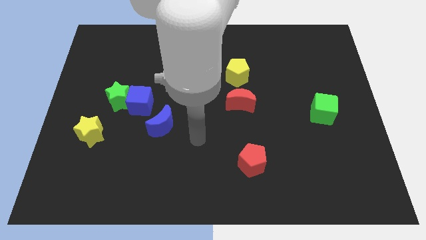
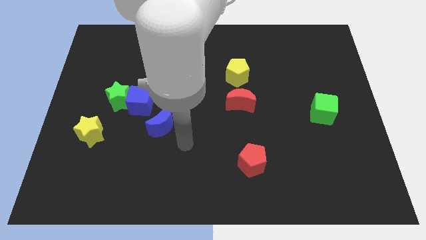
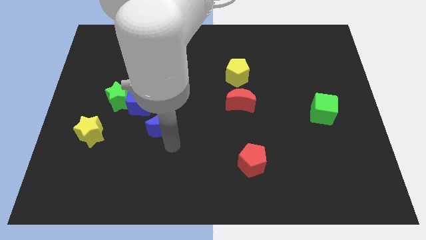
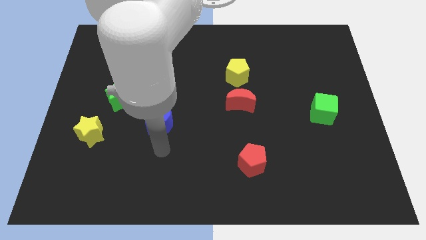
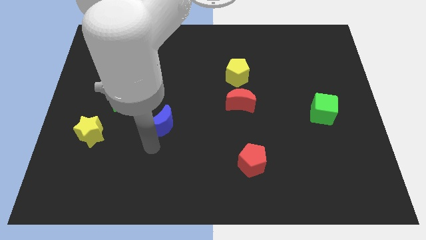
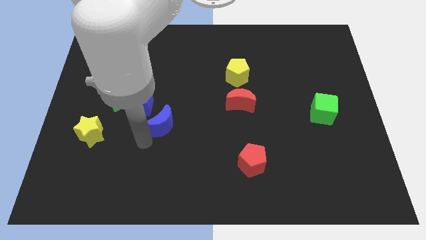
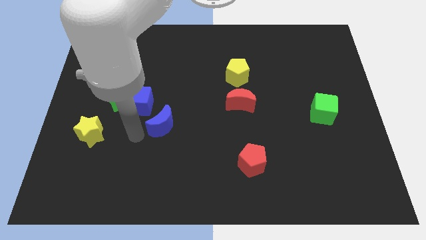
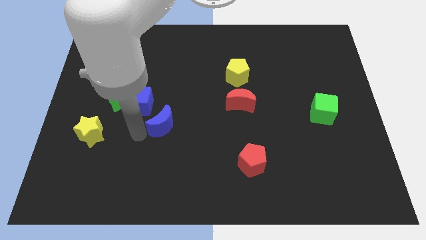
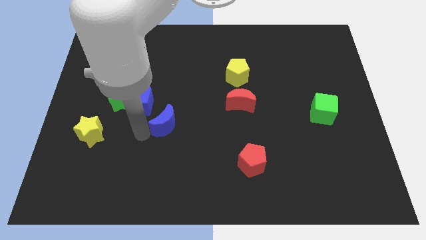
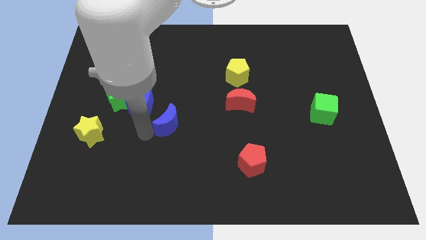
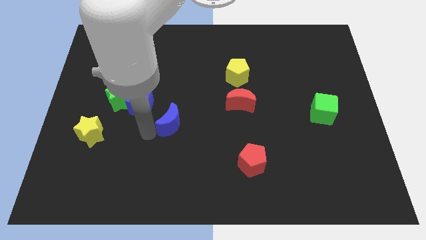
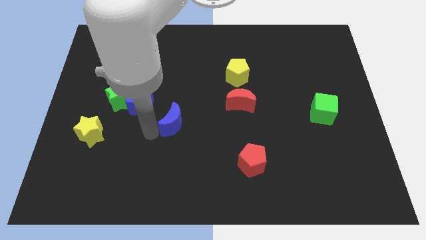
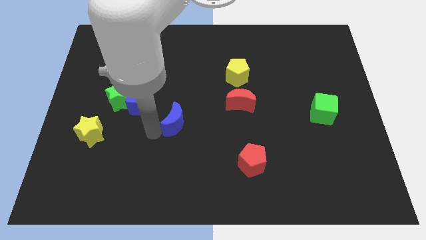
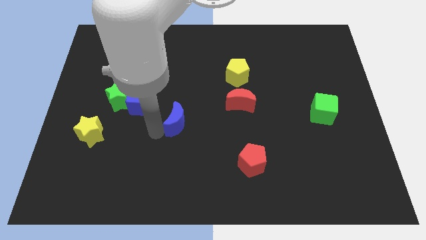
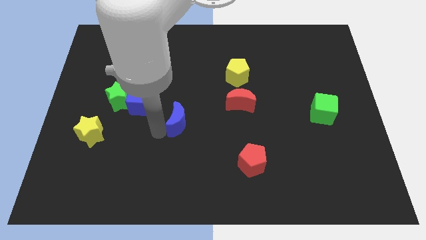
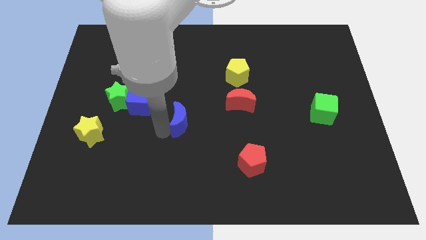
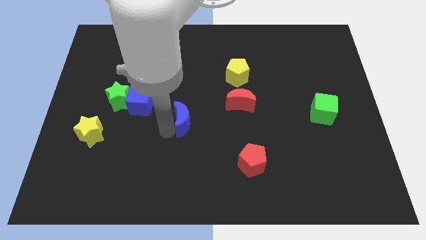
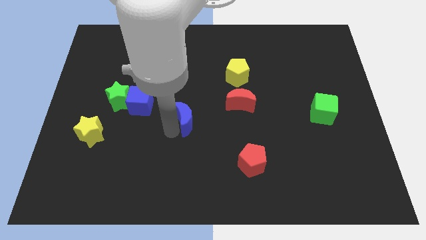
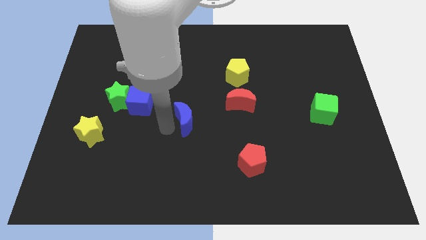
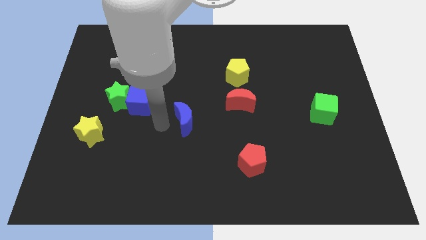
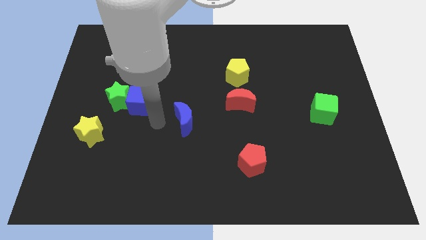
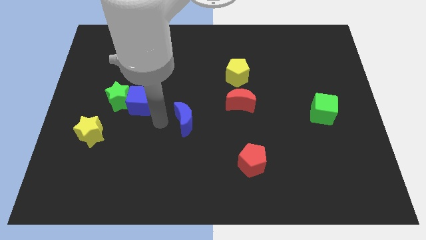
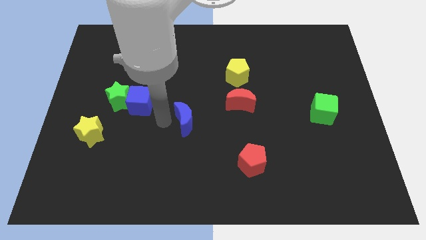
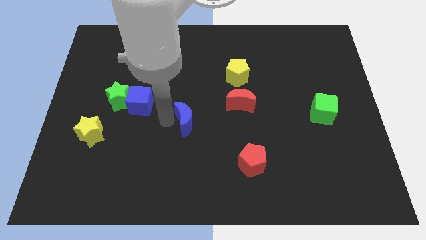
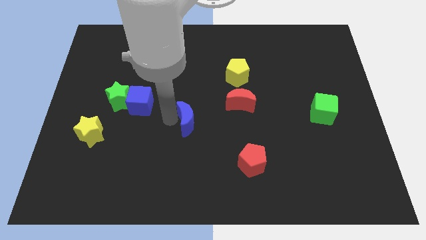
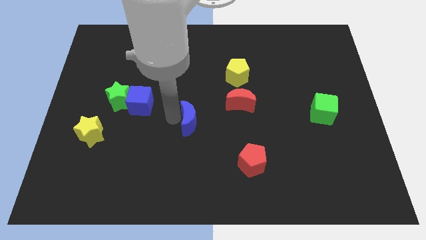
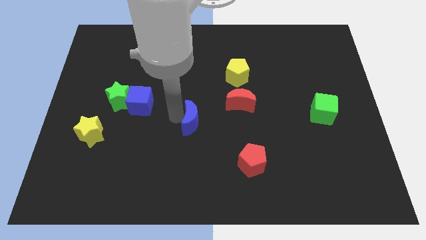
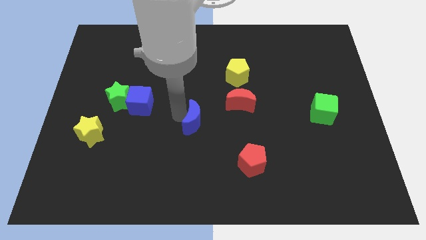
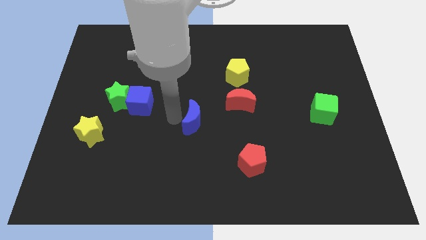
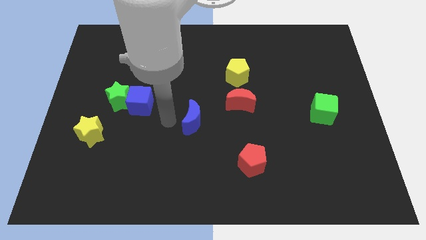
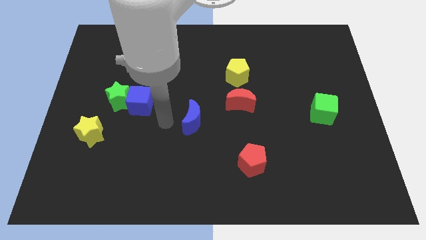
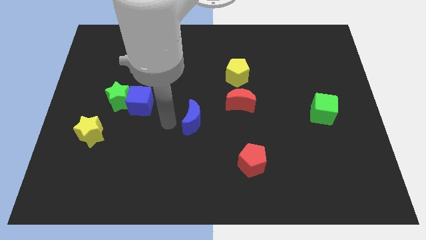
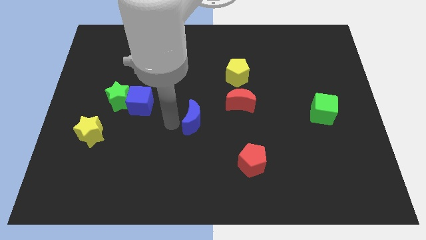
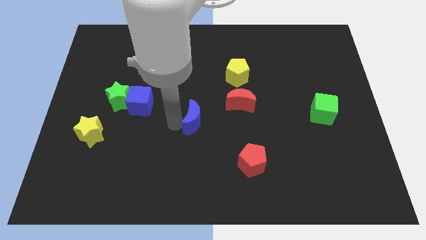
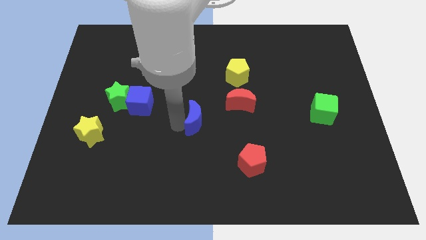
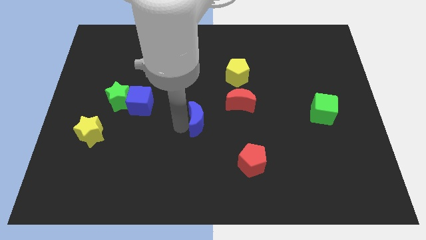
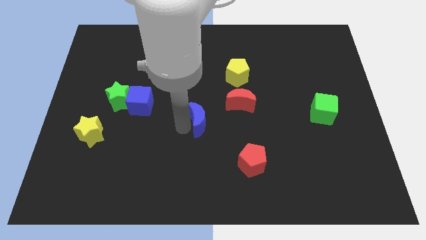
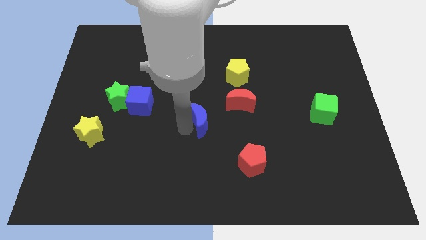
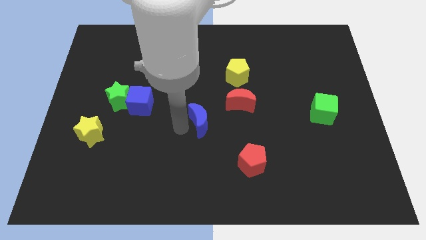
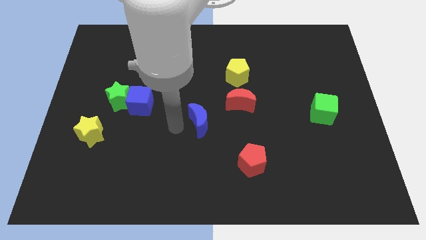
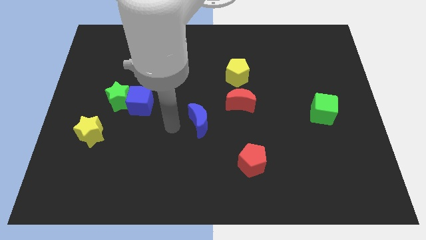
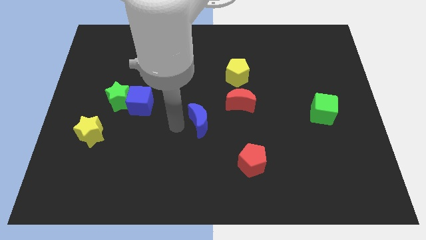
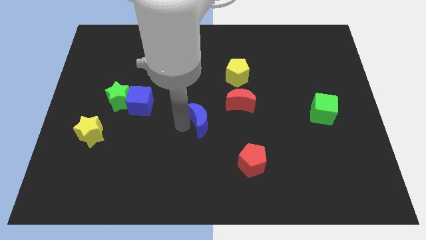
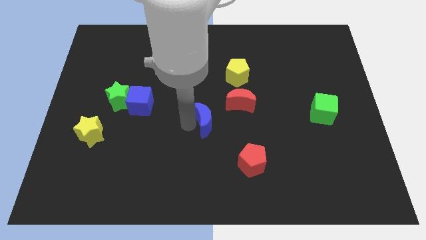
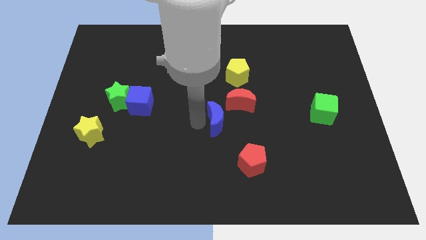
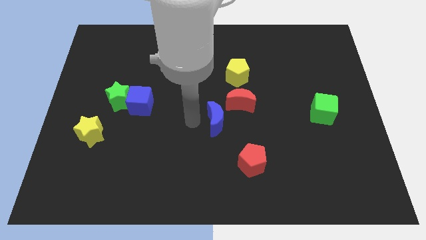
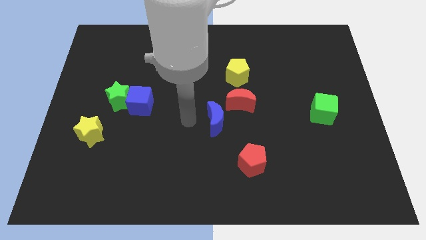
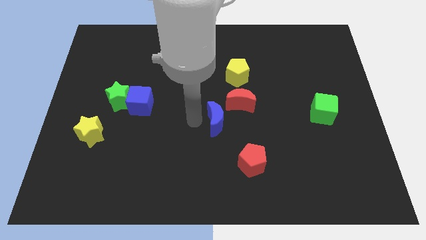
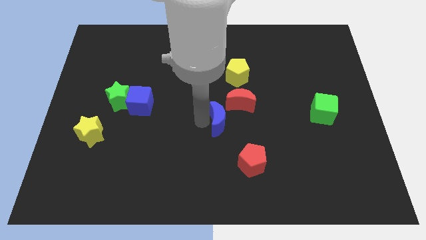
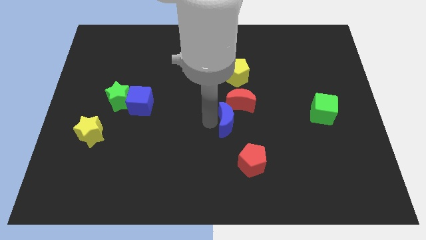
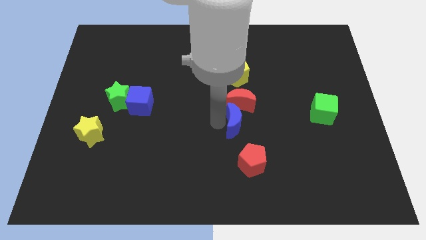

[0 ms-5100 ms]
slide the blue moon to the top side of the red pentagon

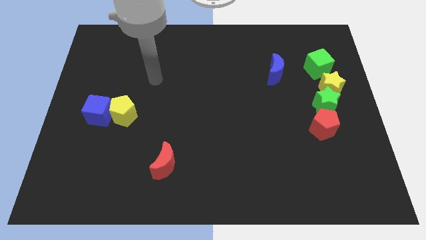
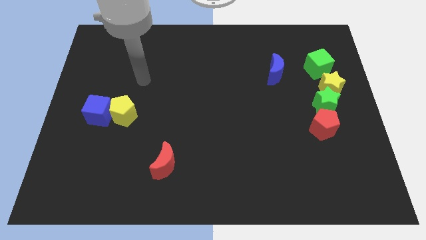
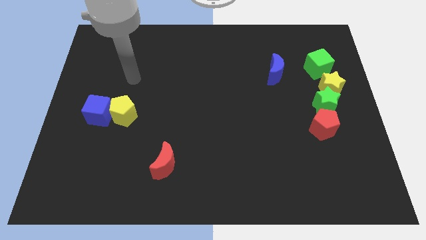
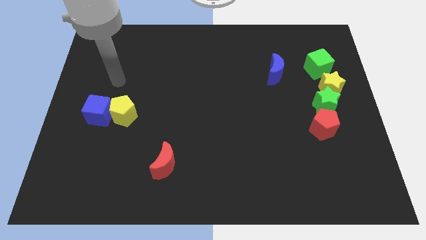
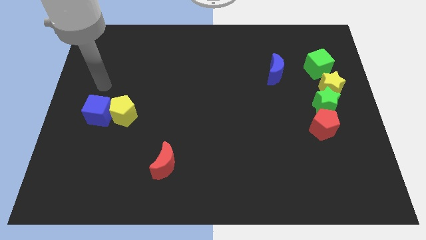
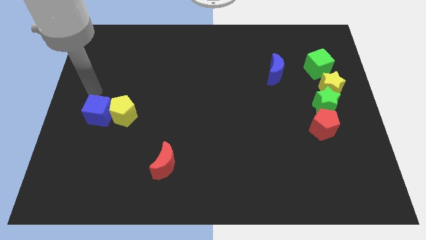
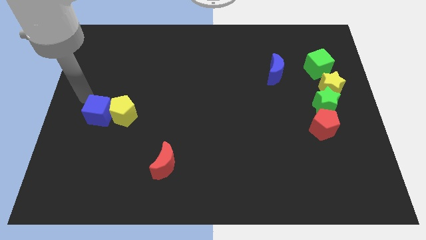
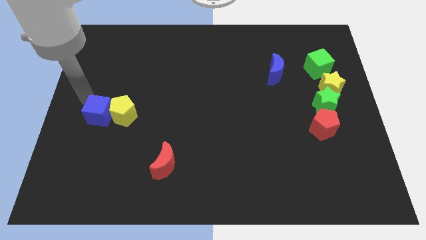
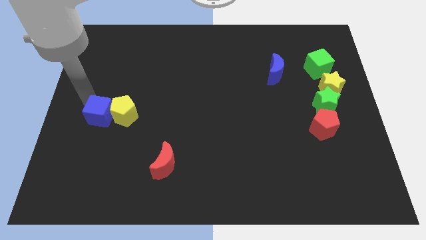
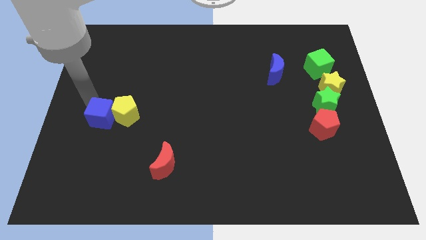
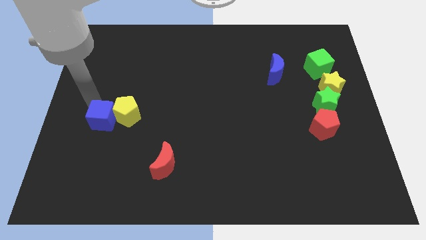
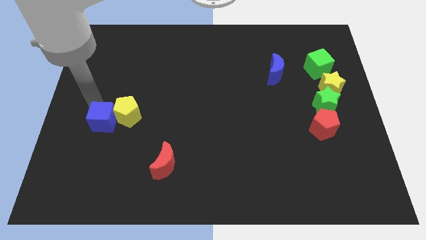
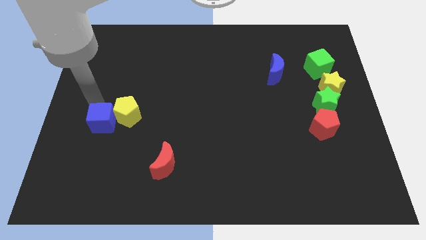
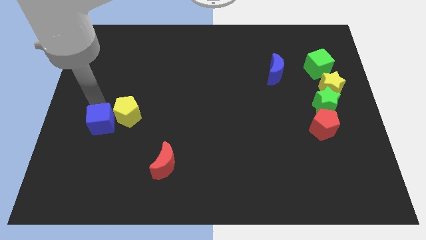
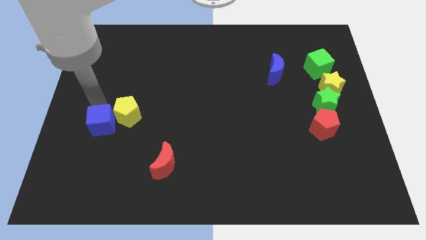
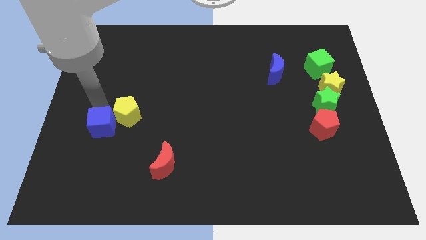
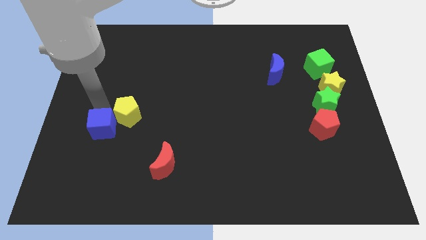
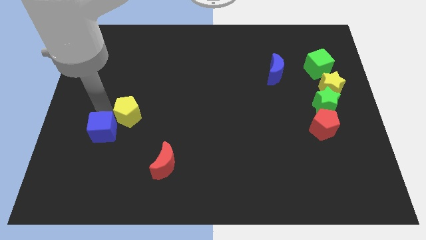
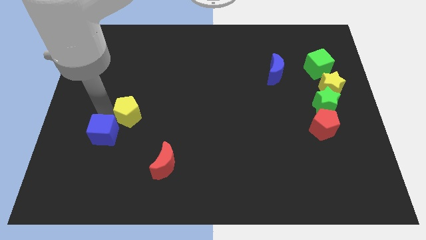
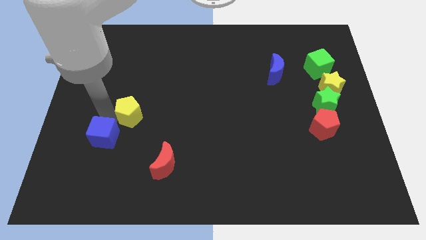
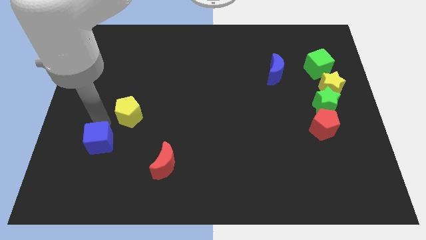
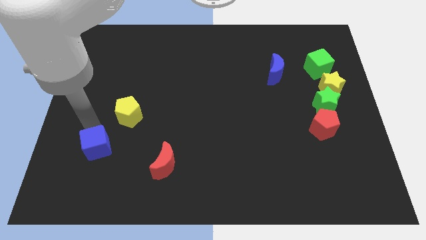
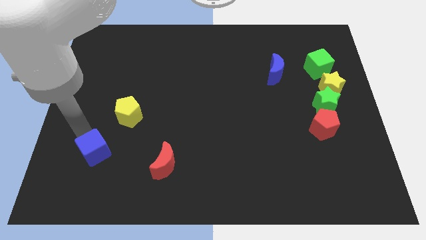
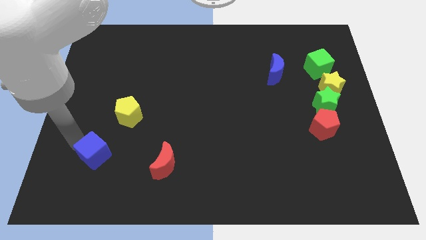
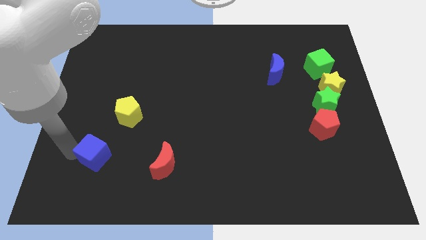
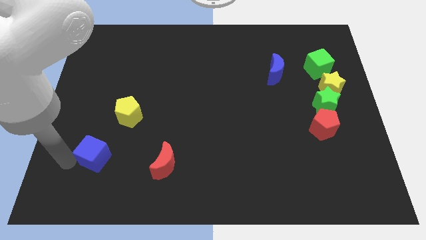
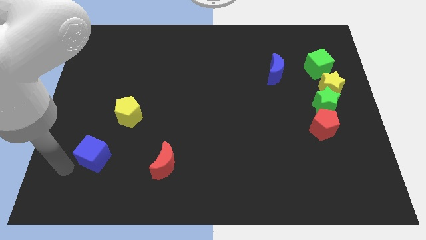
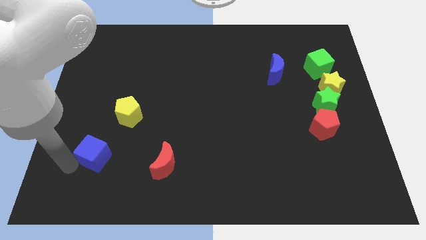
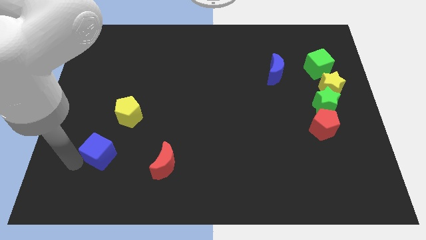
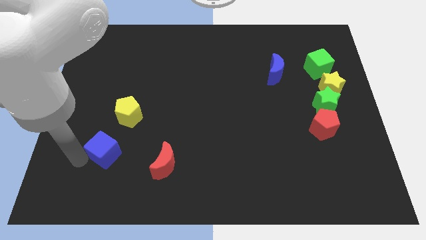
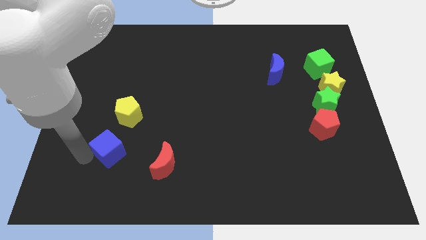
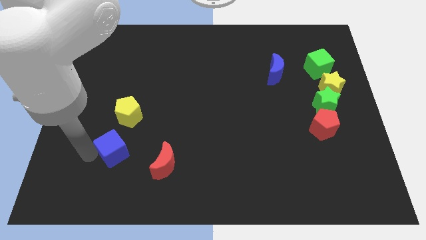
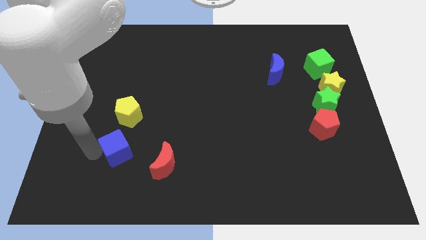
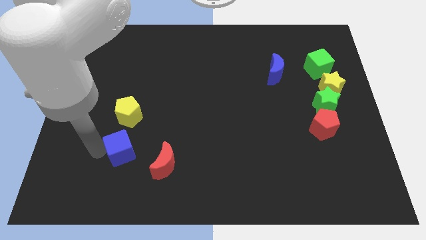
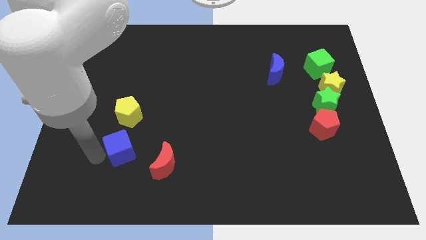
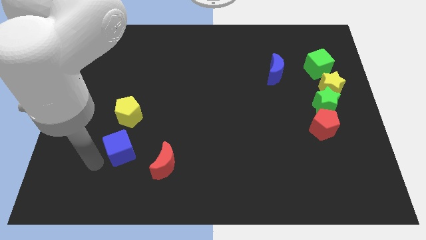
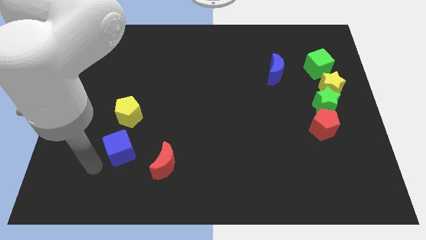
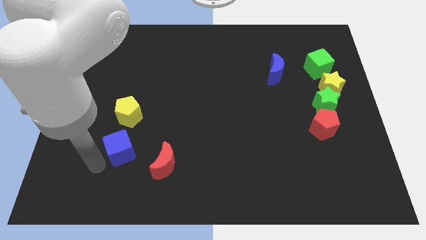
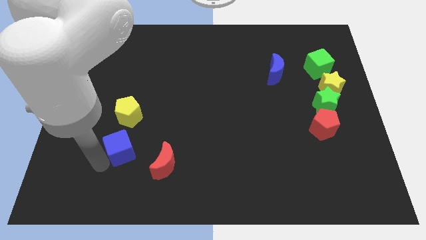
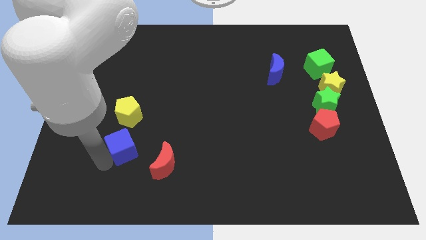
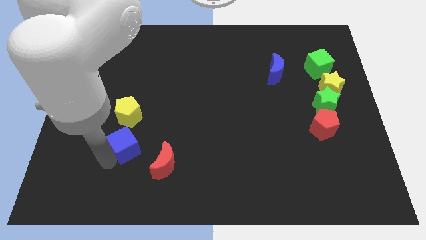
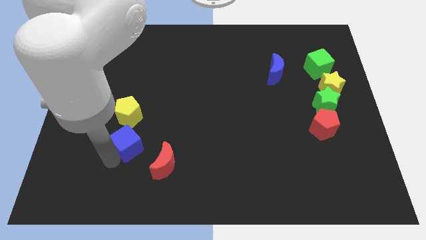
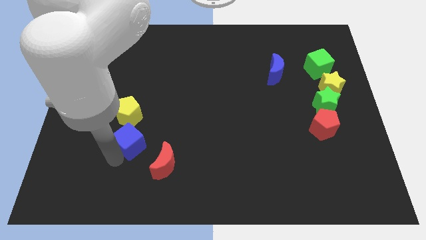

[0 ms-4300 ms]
put the blue cube to the bottom right of the yellow pentagon
